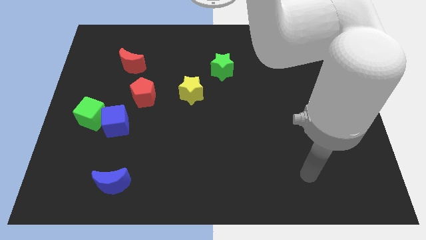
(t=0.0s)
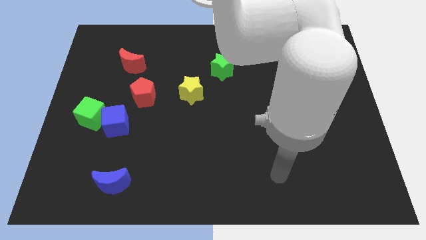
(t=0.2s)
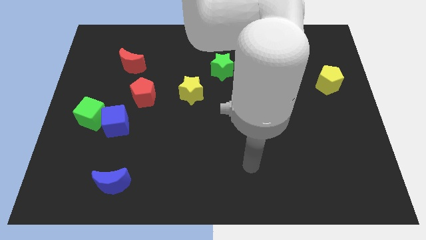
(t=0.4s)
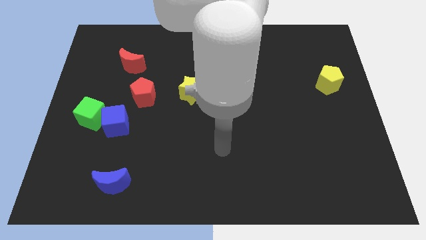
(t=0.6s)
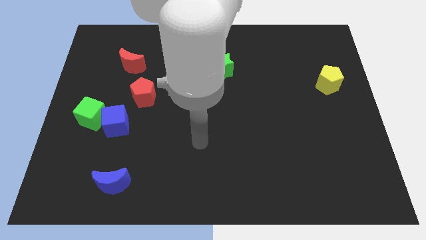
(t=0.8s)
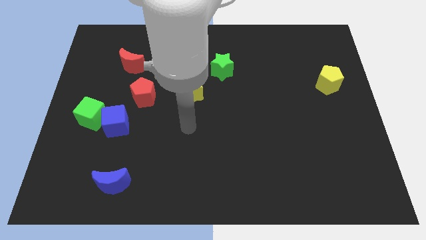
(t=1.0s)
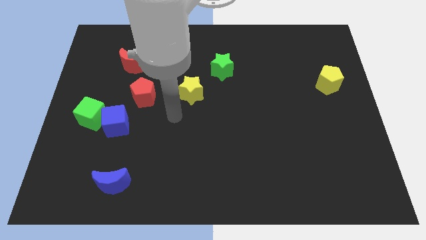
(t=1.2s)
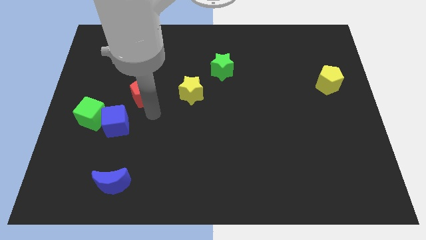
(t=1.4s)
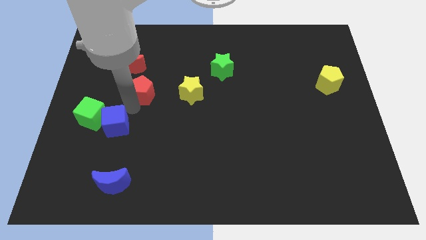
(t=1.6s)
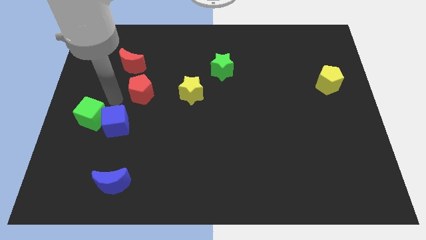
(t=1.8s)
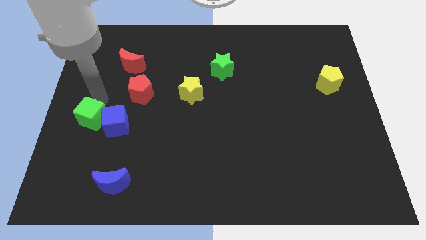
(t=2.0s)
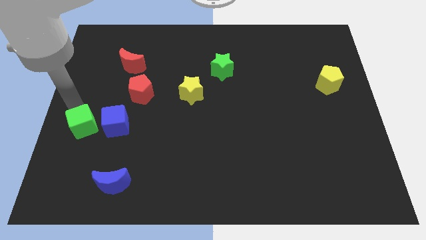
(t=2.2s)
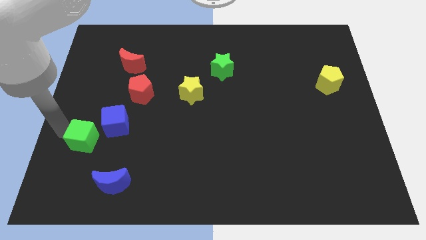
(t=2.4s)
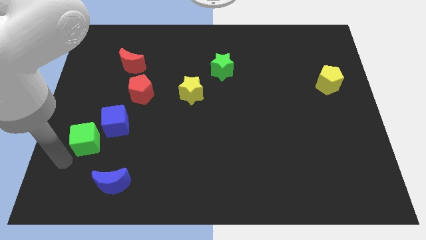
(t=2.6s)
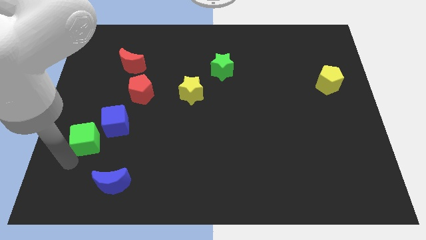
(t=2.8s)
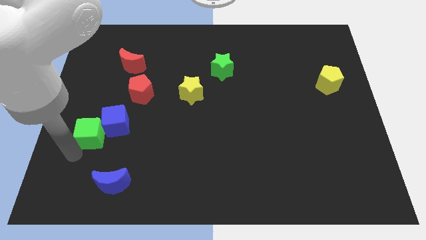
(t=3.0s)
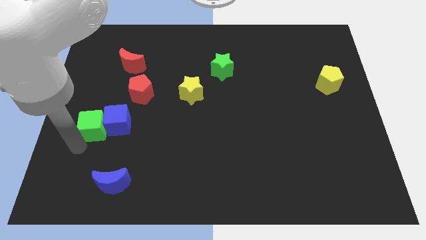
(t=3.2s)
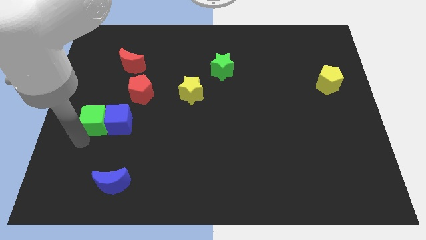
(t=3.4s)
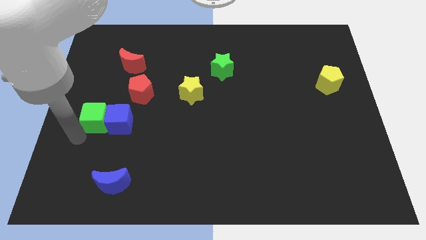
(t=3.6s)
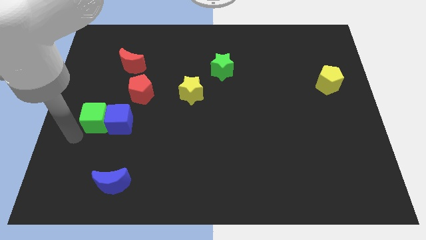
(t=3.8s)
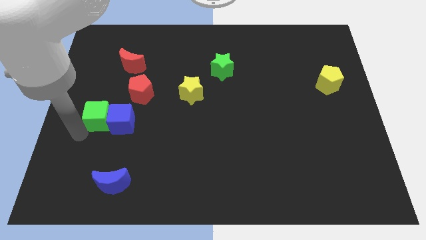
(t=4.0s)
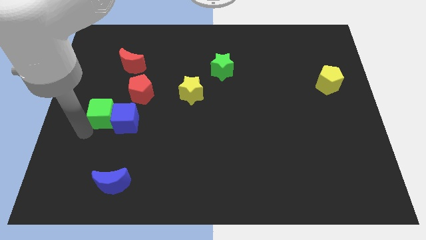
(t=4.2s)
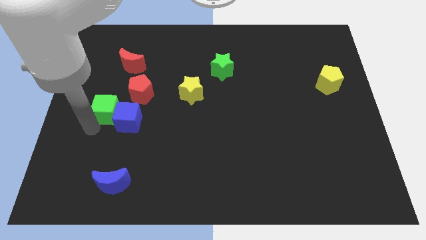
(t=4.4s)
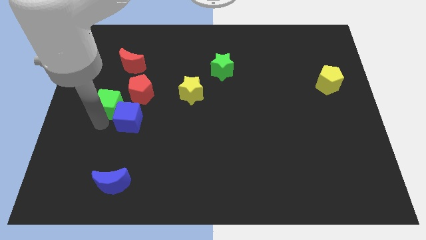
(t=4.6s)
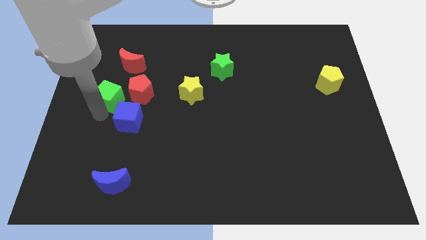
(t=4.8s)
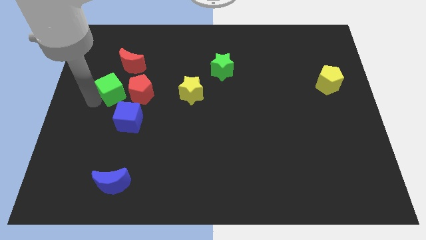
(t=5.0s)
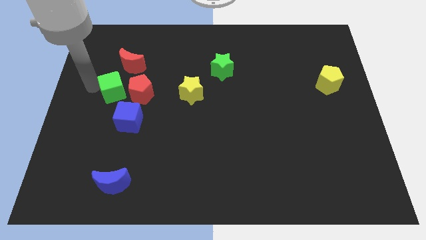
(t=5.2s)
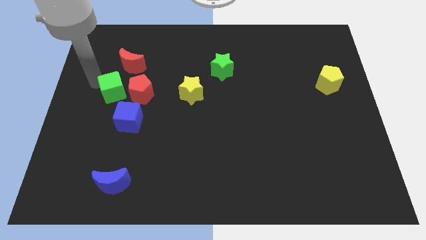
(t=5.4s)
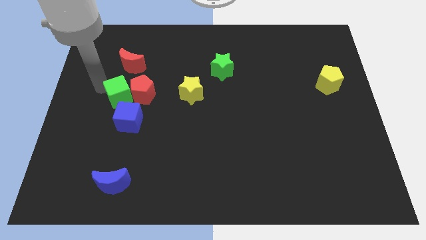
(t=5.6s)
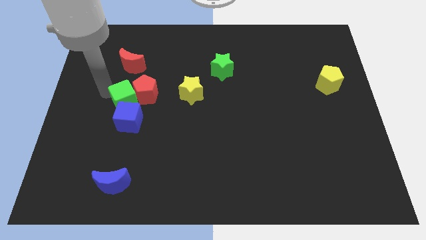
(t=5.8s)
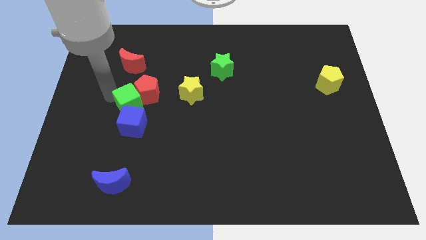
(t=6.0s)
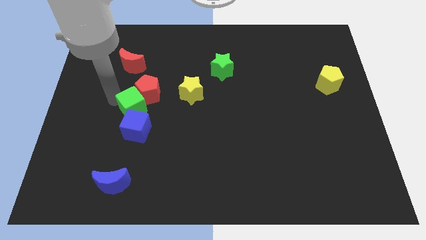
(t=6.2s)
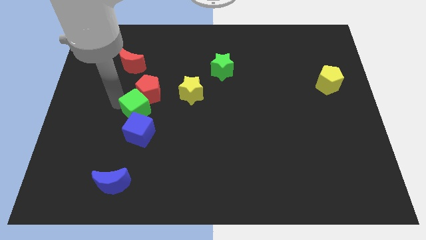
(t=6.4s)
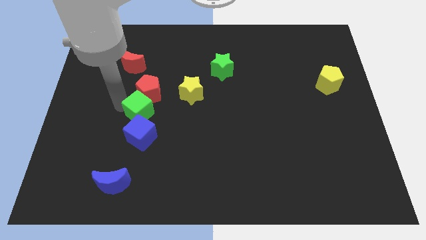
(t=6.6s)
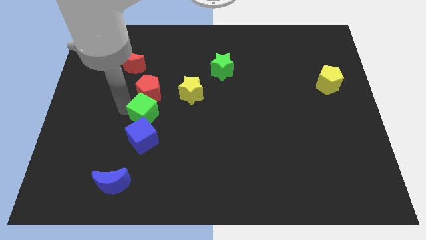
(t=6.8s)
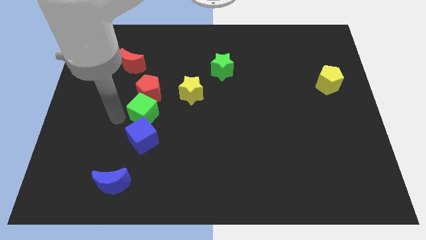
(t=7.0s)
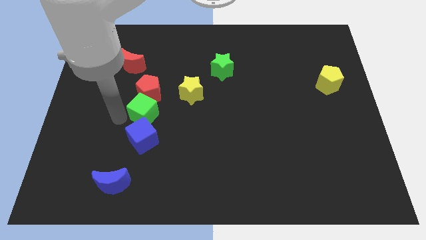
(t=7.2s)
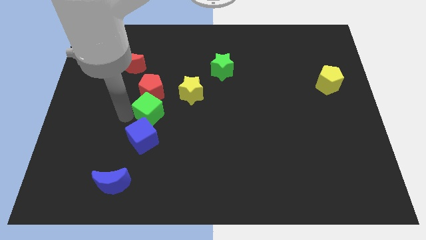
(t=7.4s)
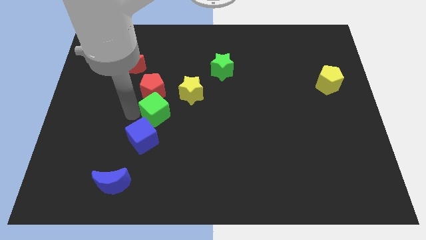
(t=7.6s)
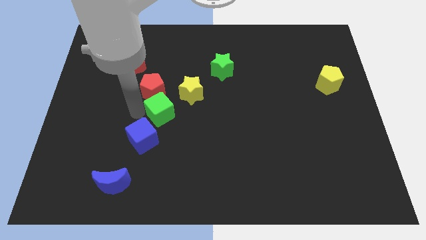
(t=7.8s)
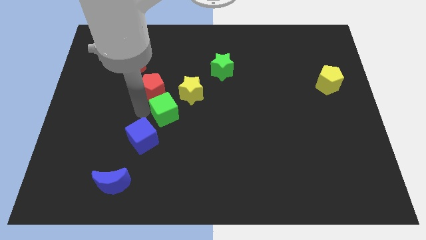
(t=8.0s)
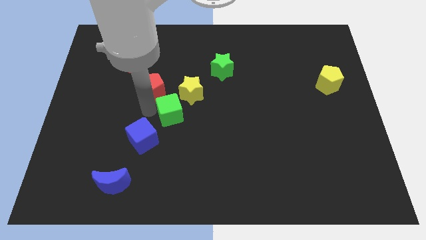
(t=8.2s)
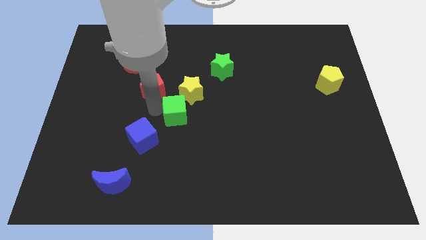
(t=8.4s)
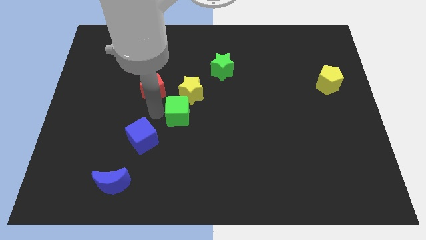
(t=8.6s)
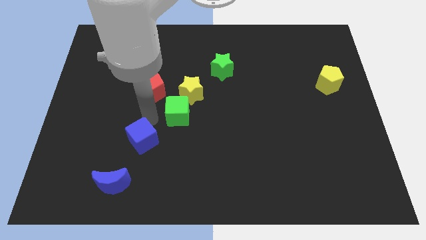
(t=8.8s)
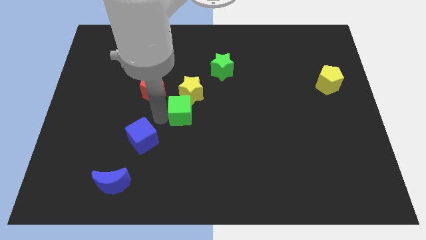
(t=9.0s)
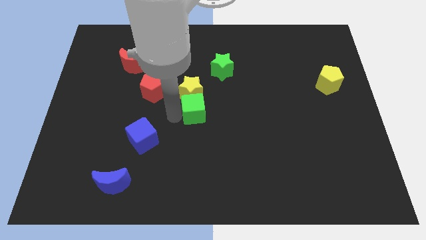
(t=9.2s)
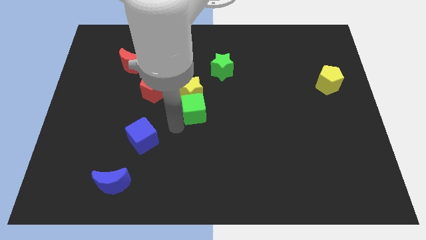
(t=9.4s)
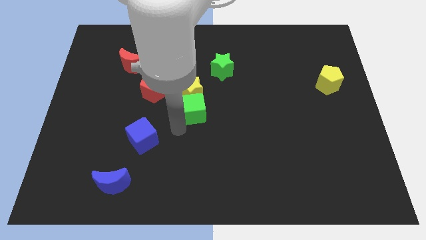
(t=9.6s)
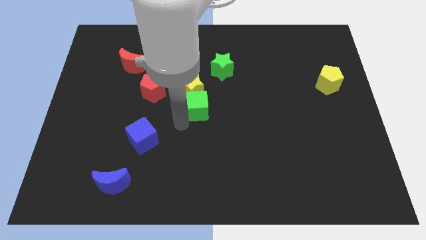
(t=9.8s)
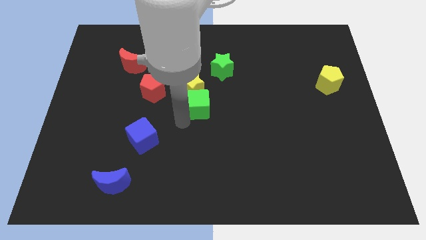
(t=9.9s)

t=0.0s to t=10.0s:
slide the green cube just right of the red pentagon

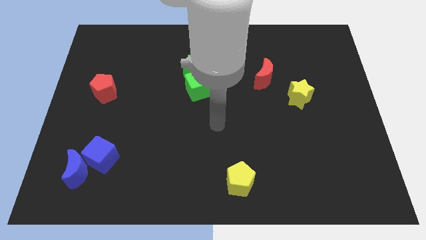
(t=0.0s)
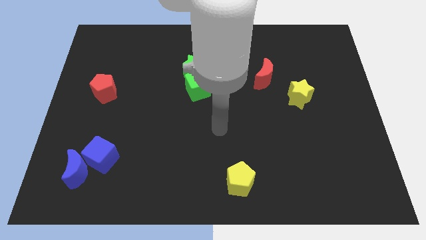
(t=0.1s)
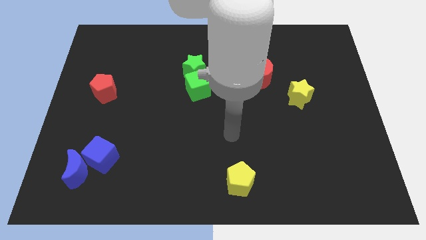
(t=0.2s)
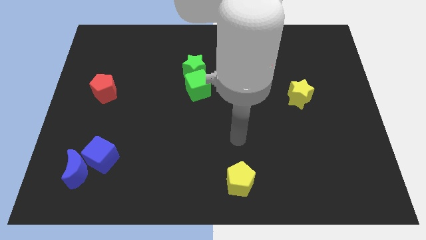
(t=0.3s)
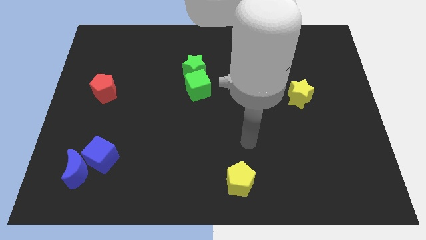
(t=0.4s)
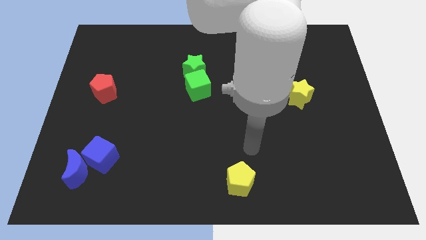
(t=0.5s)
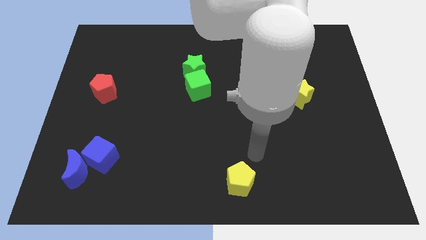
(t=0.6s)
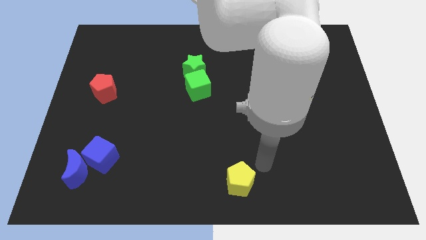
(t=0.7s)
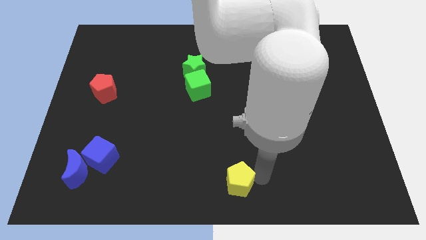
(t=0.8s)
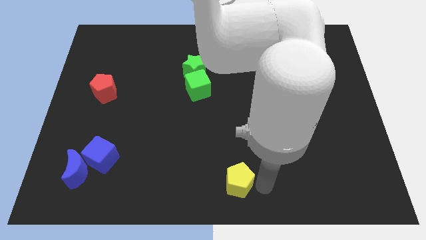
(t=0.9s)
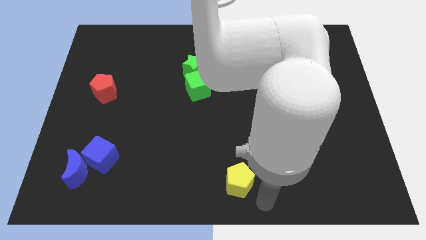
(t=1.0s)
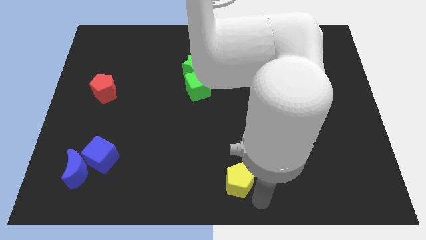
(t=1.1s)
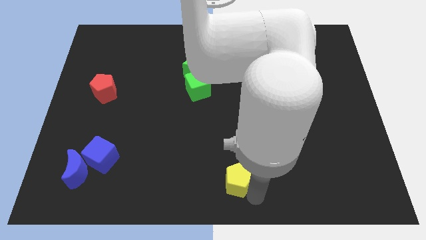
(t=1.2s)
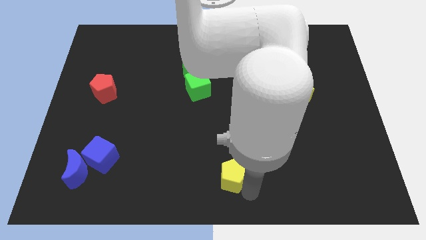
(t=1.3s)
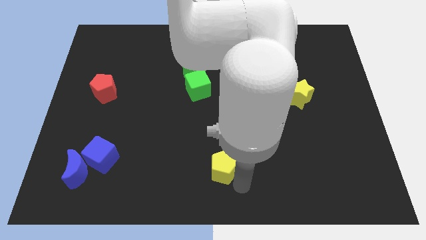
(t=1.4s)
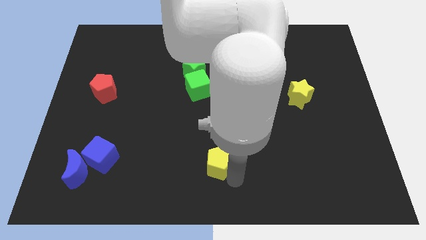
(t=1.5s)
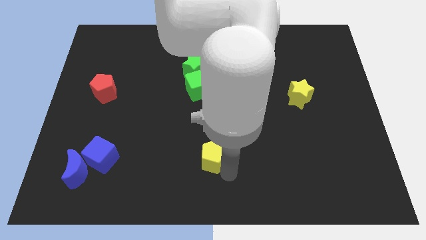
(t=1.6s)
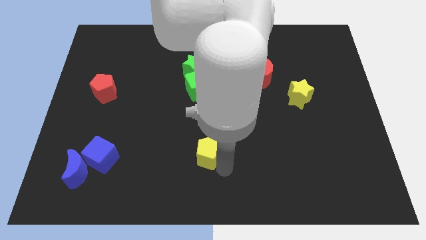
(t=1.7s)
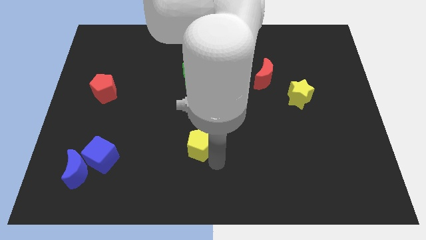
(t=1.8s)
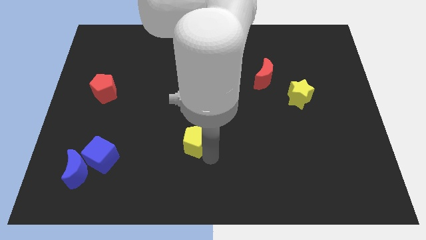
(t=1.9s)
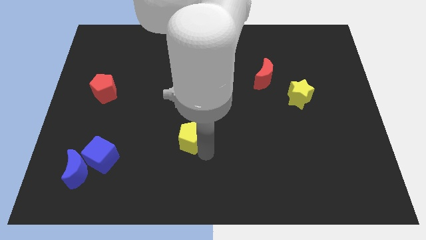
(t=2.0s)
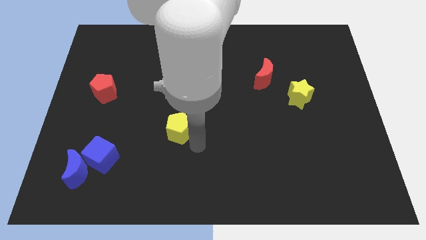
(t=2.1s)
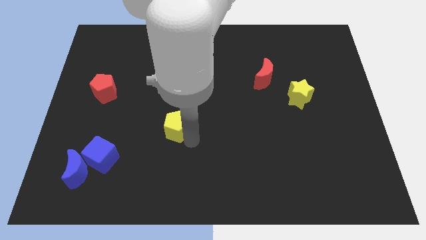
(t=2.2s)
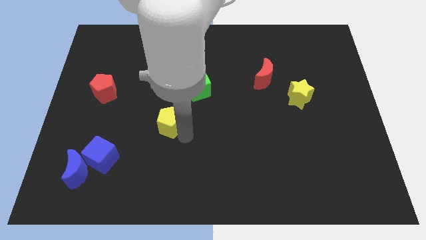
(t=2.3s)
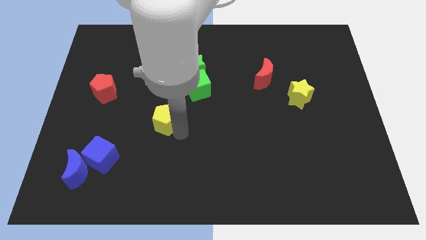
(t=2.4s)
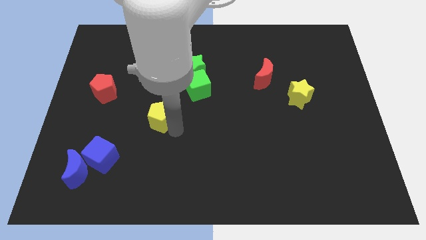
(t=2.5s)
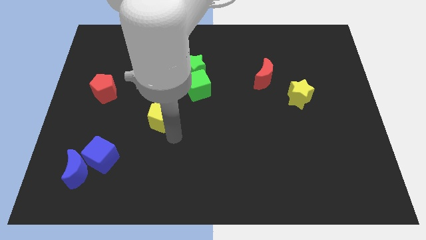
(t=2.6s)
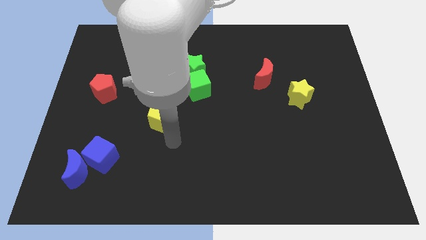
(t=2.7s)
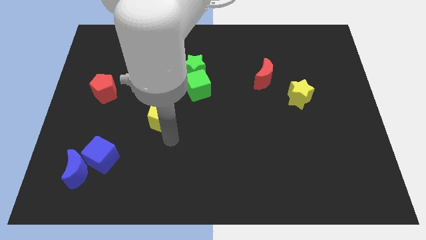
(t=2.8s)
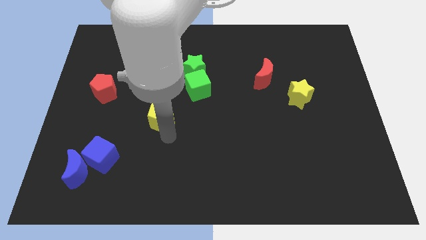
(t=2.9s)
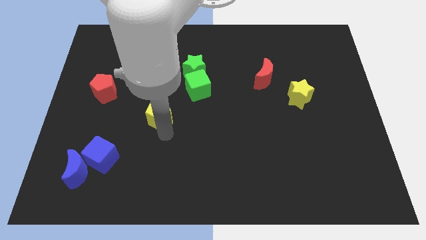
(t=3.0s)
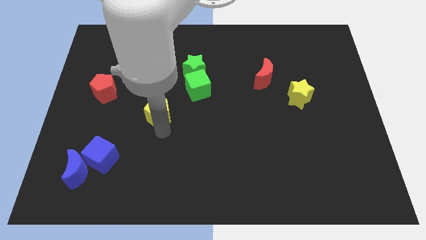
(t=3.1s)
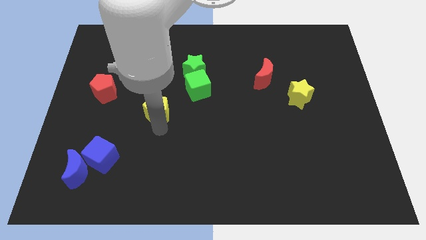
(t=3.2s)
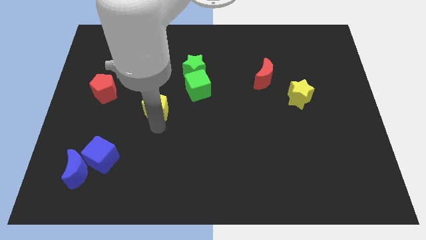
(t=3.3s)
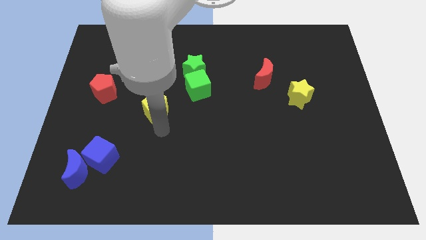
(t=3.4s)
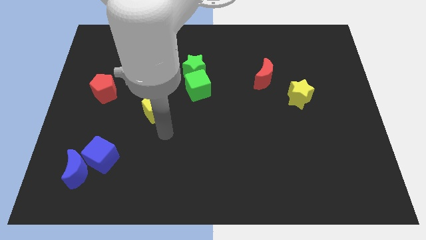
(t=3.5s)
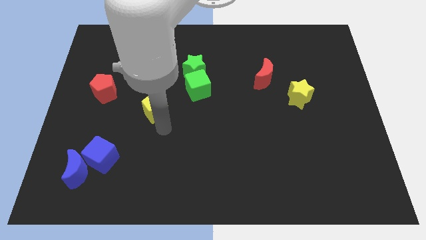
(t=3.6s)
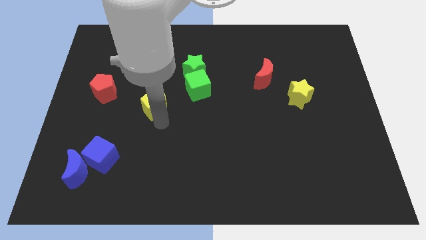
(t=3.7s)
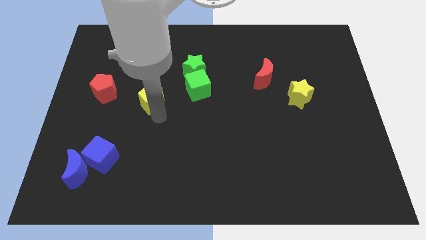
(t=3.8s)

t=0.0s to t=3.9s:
push the yellow pentagon to the right side of the red pentagon
